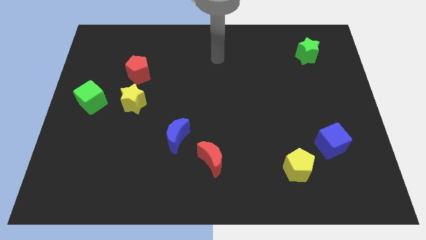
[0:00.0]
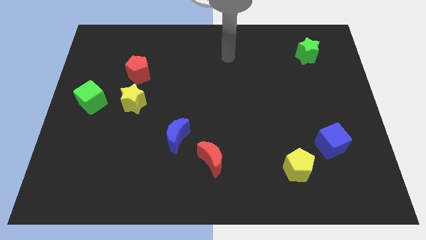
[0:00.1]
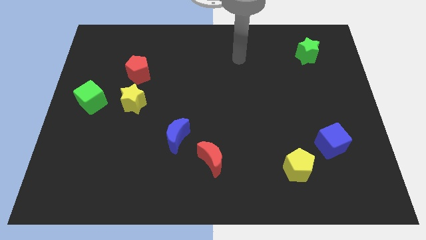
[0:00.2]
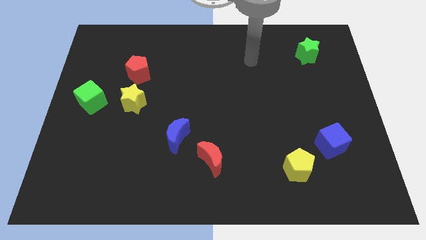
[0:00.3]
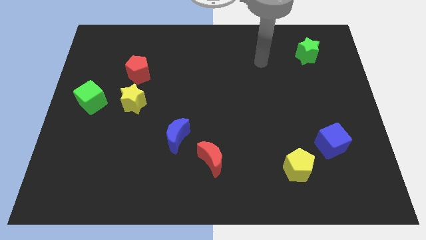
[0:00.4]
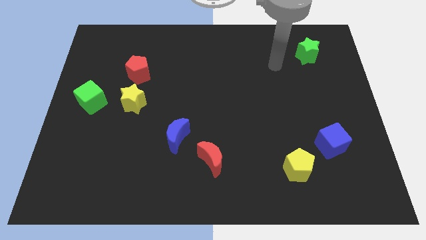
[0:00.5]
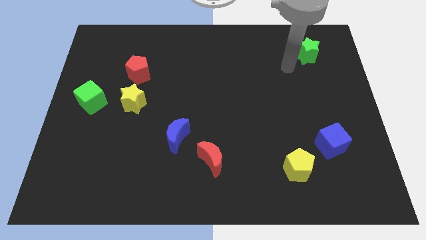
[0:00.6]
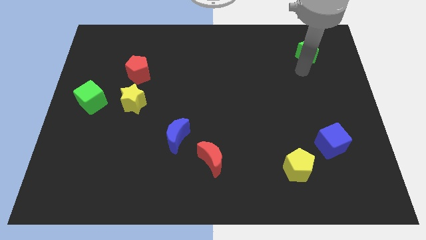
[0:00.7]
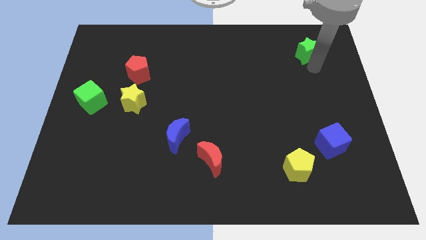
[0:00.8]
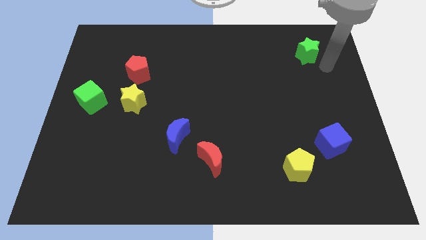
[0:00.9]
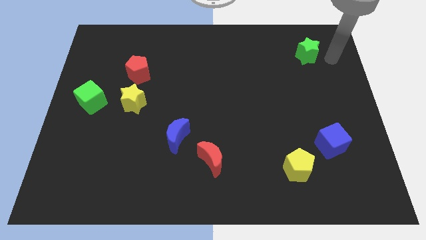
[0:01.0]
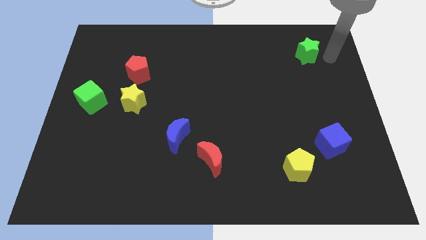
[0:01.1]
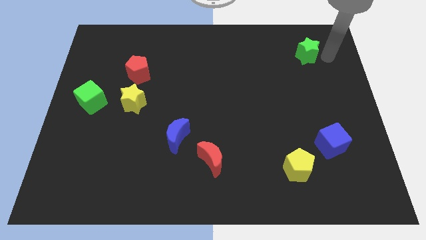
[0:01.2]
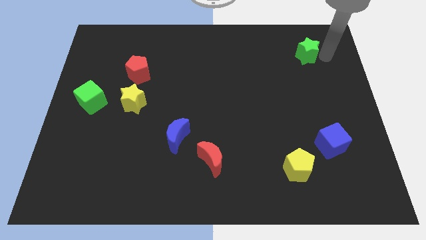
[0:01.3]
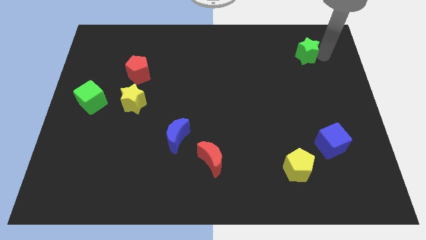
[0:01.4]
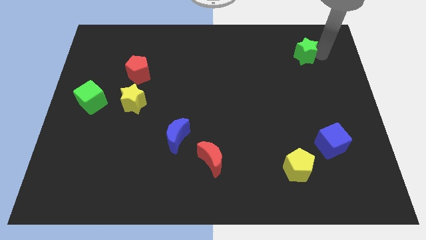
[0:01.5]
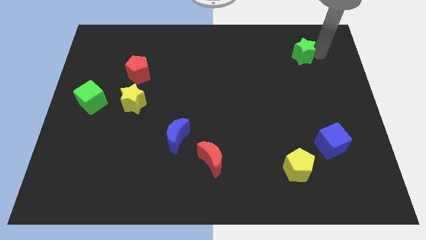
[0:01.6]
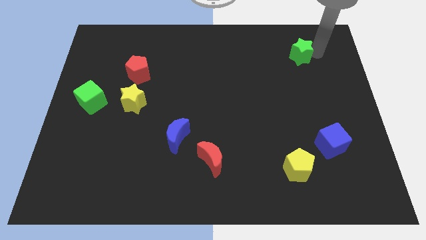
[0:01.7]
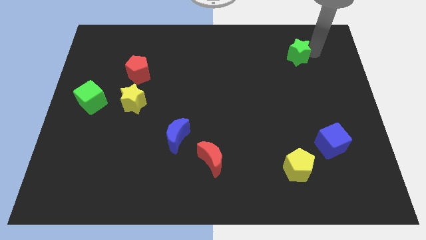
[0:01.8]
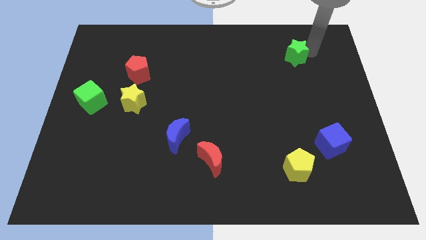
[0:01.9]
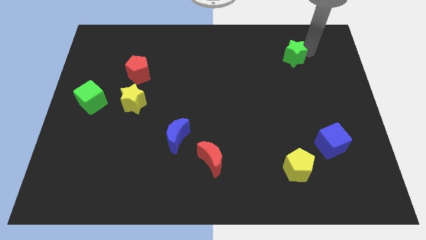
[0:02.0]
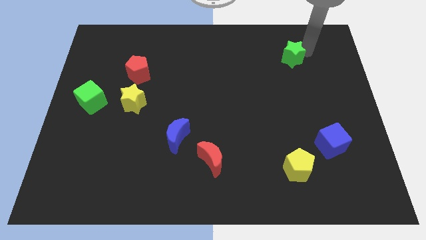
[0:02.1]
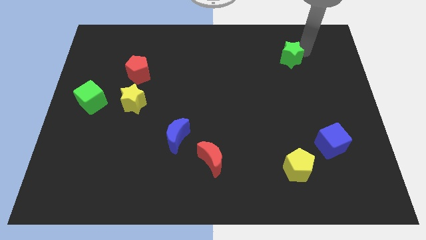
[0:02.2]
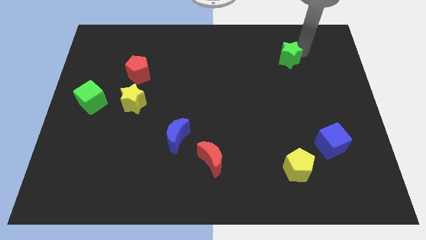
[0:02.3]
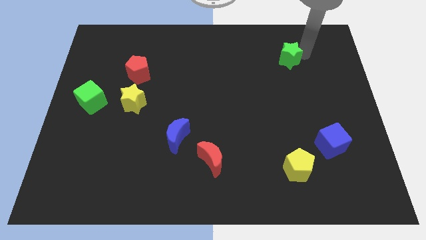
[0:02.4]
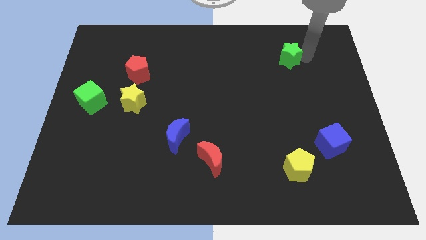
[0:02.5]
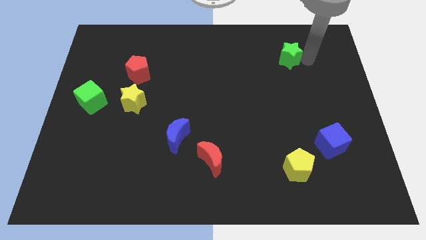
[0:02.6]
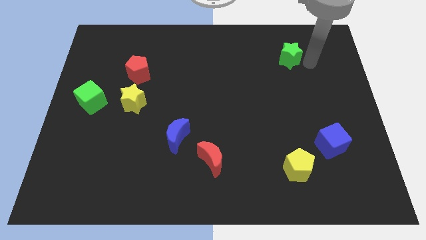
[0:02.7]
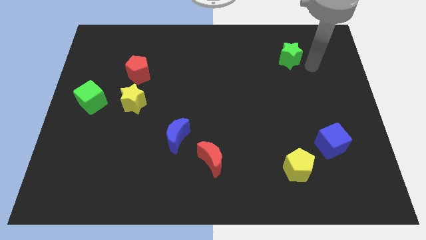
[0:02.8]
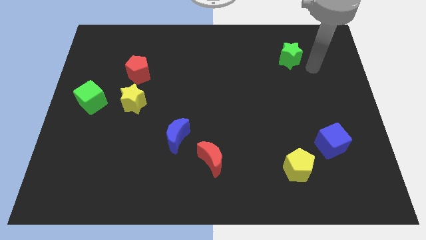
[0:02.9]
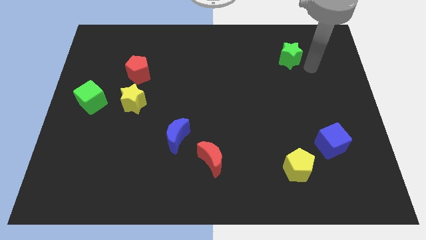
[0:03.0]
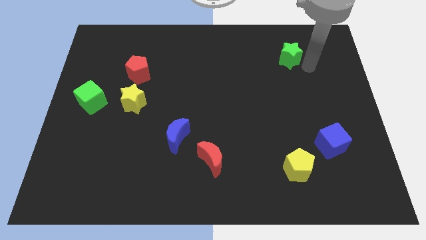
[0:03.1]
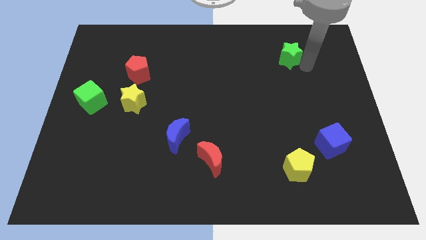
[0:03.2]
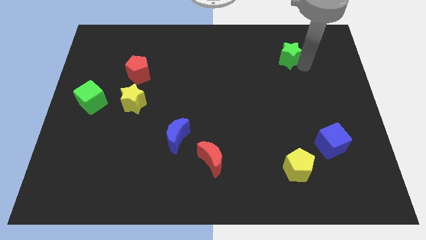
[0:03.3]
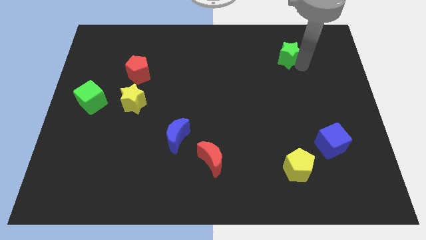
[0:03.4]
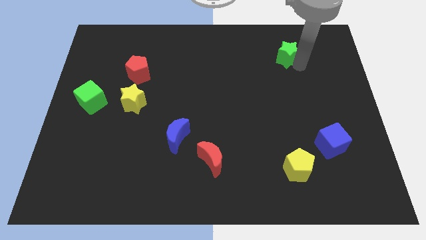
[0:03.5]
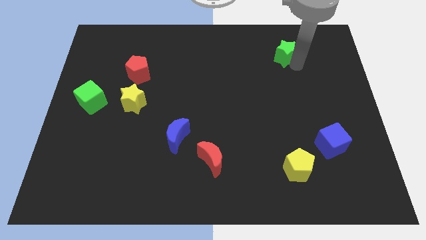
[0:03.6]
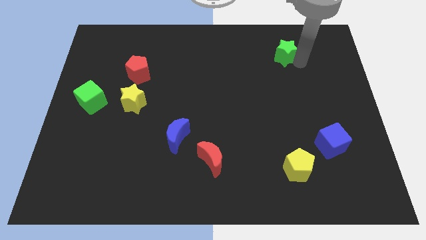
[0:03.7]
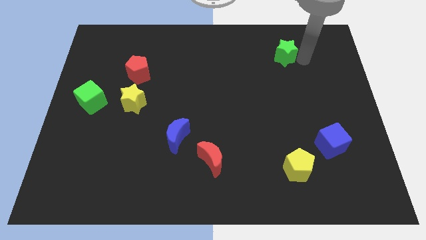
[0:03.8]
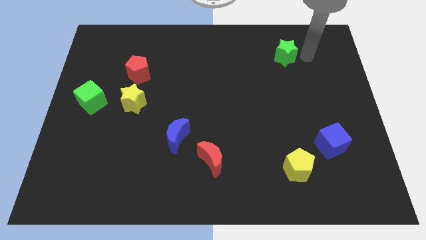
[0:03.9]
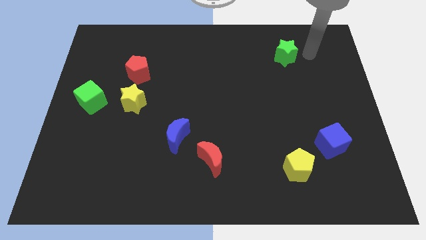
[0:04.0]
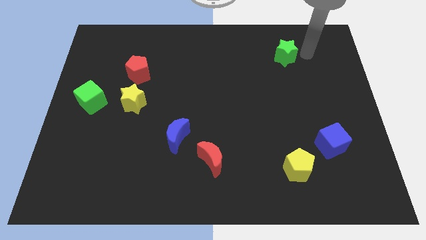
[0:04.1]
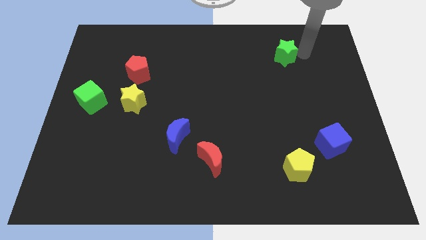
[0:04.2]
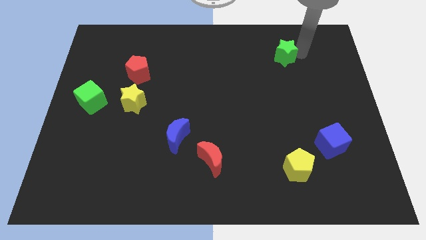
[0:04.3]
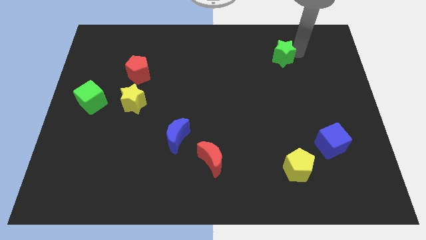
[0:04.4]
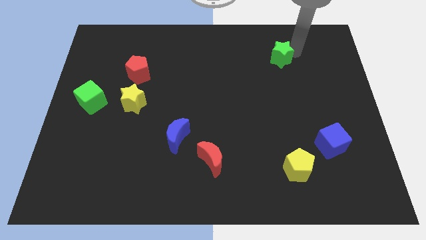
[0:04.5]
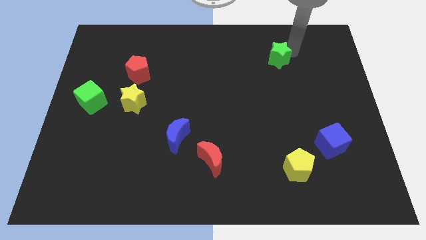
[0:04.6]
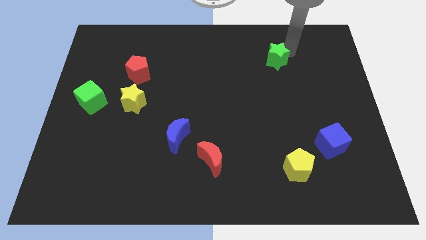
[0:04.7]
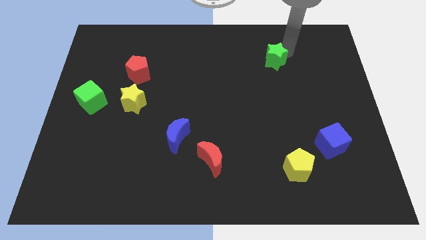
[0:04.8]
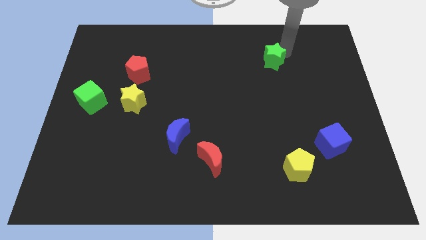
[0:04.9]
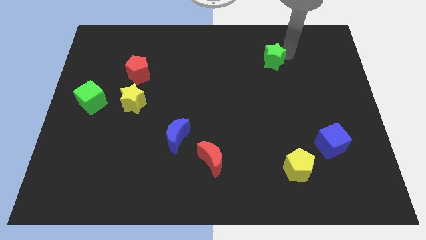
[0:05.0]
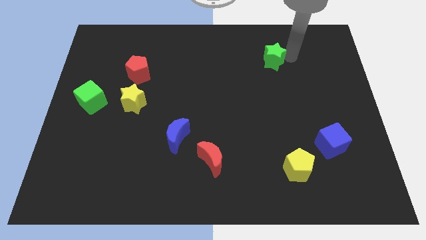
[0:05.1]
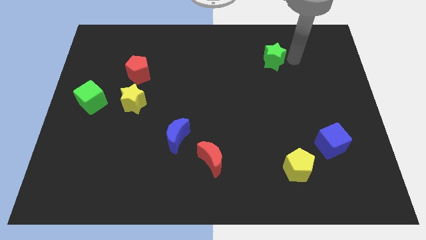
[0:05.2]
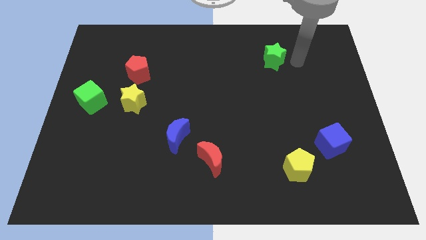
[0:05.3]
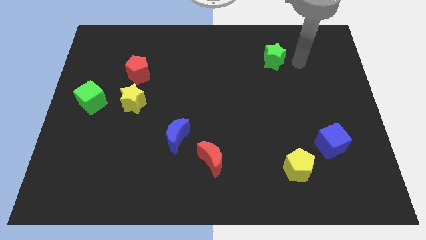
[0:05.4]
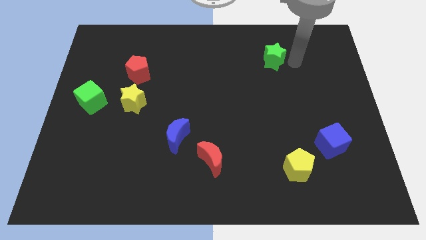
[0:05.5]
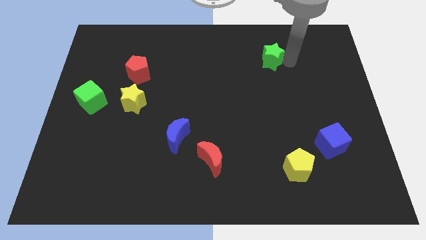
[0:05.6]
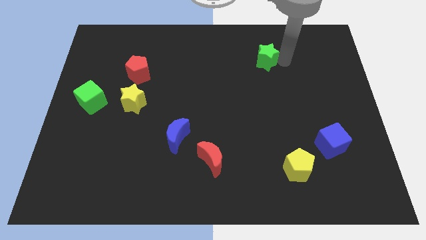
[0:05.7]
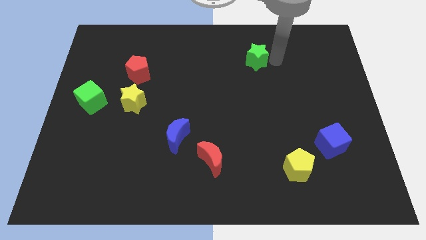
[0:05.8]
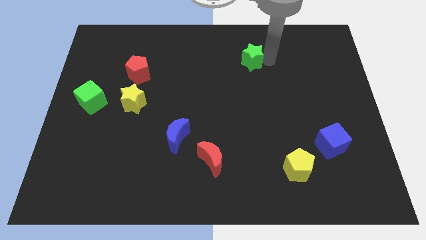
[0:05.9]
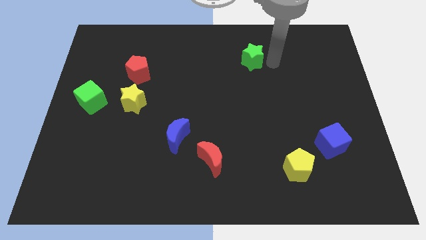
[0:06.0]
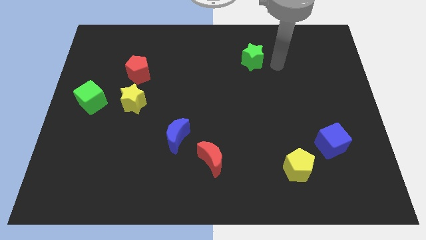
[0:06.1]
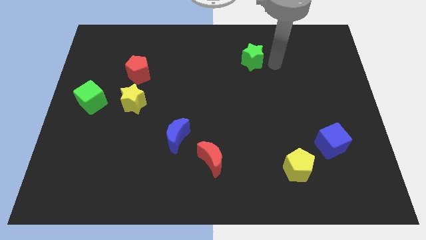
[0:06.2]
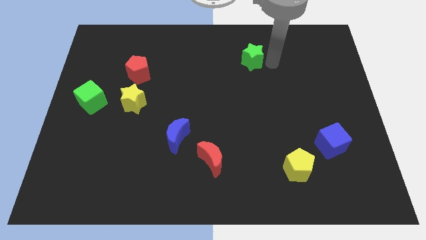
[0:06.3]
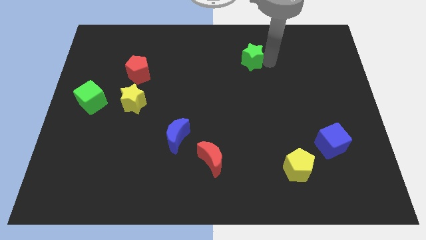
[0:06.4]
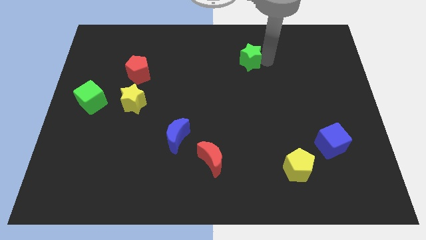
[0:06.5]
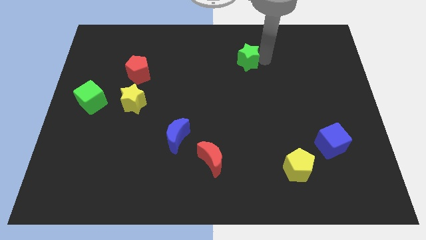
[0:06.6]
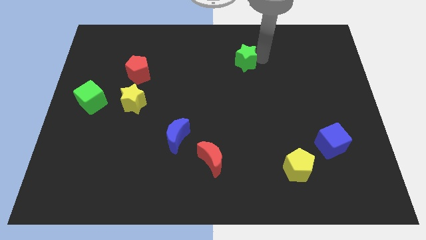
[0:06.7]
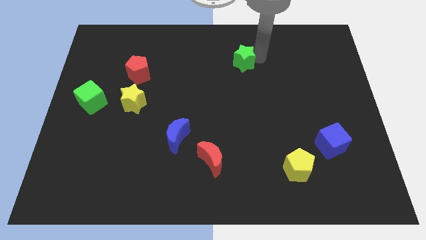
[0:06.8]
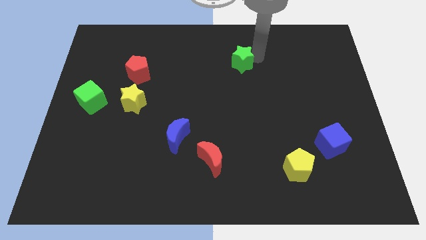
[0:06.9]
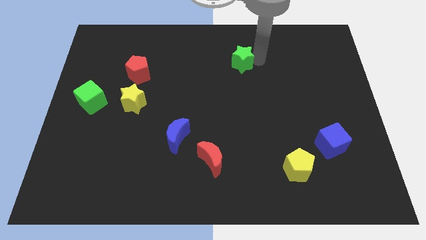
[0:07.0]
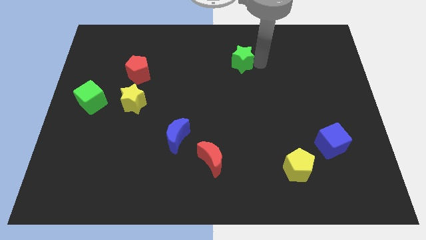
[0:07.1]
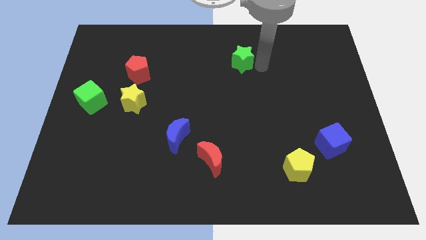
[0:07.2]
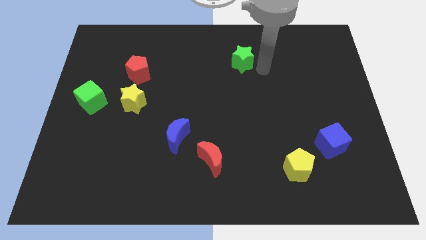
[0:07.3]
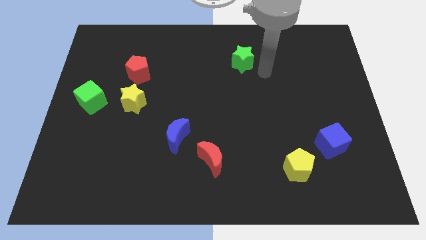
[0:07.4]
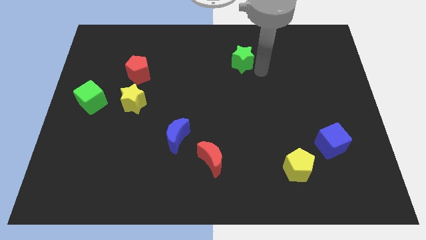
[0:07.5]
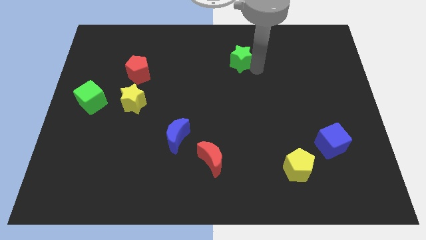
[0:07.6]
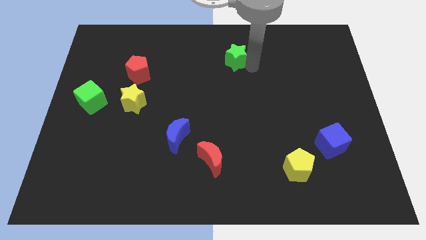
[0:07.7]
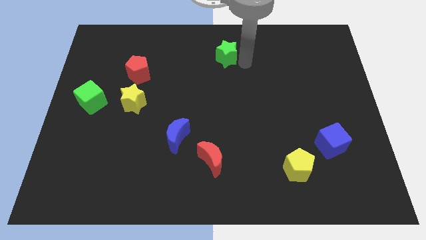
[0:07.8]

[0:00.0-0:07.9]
push the green star to the left

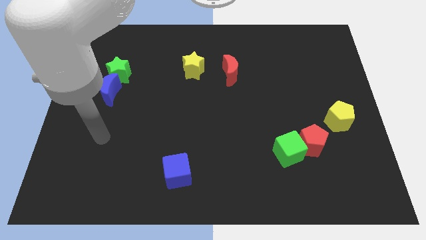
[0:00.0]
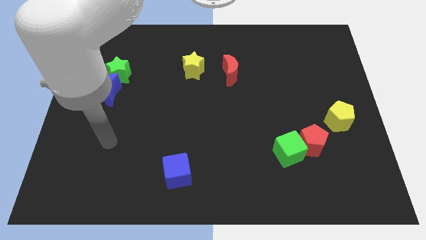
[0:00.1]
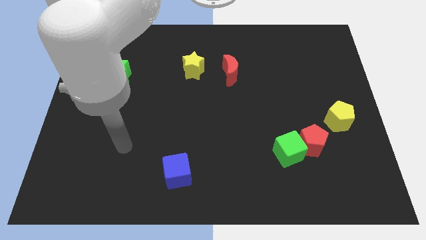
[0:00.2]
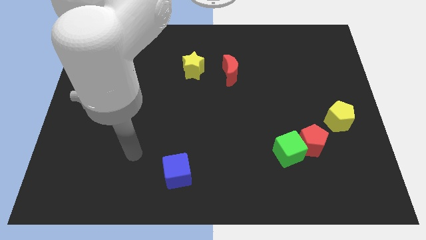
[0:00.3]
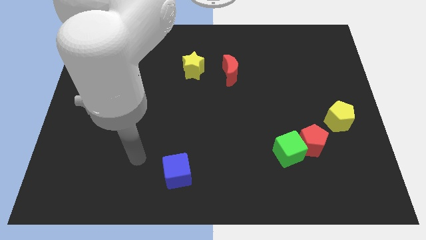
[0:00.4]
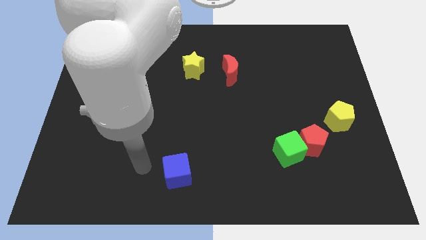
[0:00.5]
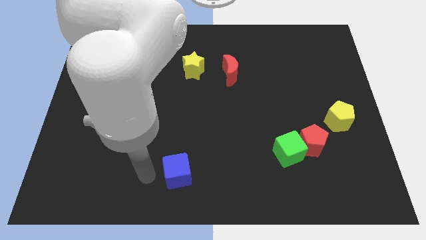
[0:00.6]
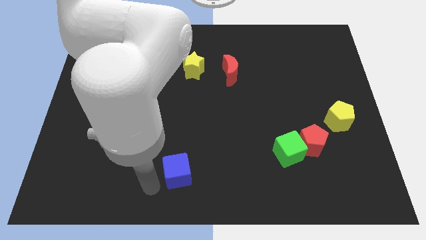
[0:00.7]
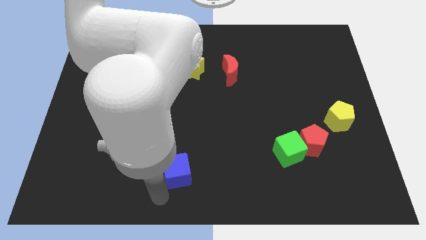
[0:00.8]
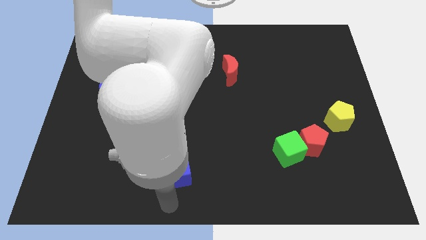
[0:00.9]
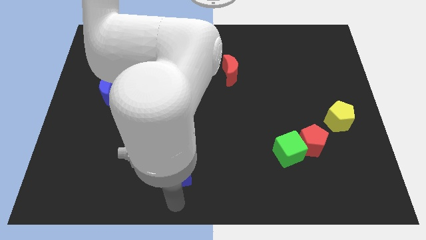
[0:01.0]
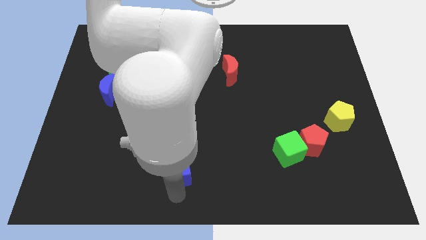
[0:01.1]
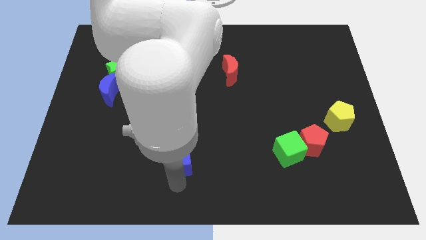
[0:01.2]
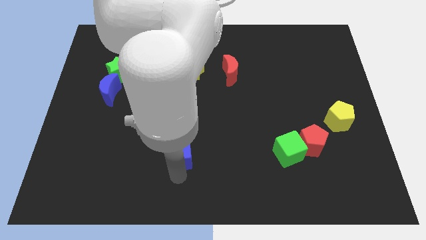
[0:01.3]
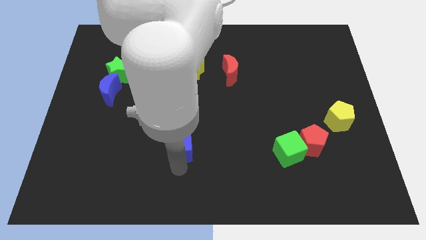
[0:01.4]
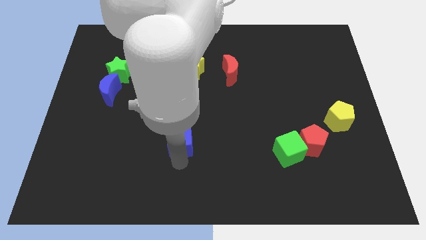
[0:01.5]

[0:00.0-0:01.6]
move the blue cube slightly up
